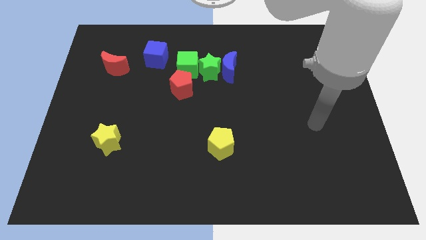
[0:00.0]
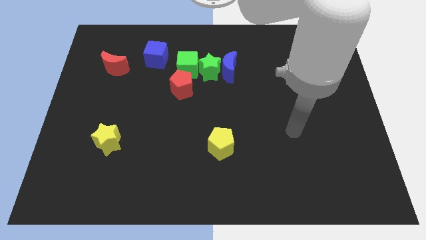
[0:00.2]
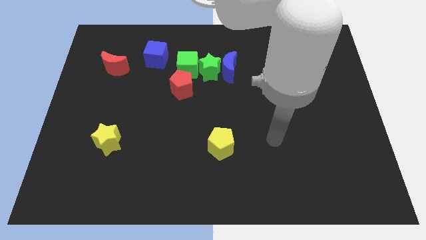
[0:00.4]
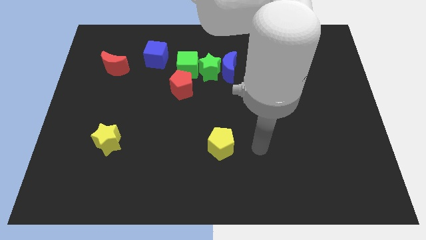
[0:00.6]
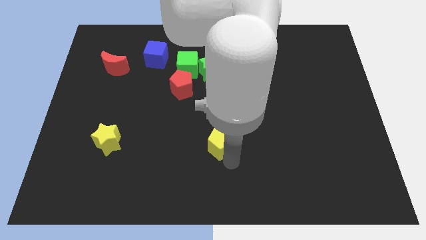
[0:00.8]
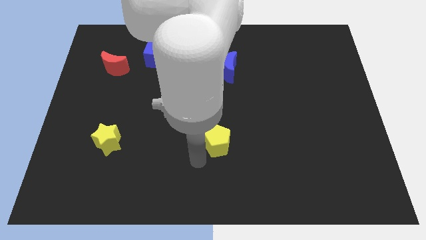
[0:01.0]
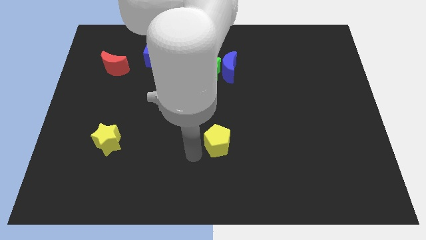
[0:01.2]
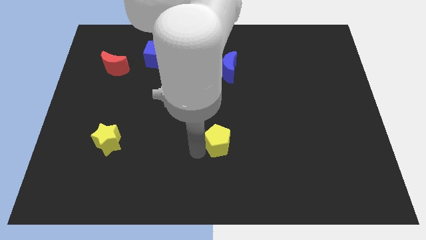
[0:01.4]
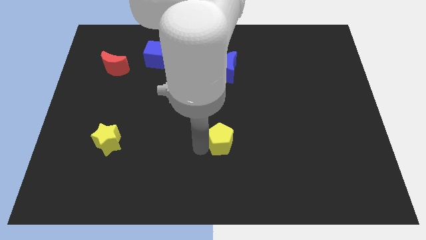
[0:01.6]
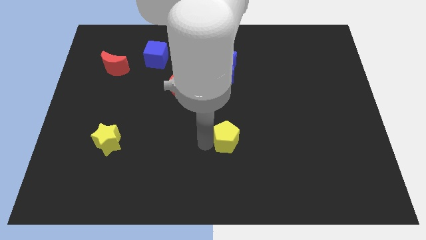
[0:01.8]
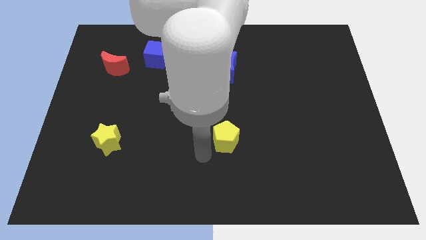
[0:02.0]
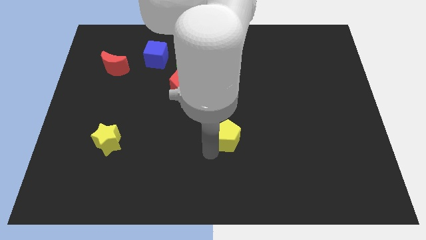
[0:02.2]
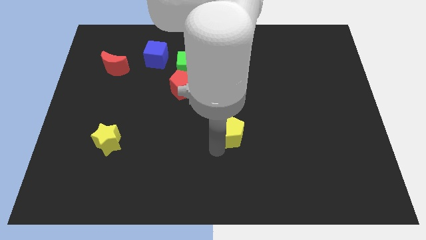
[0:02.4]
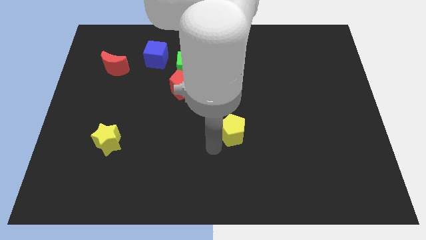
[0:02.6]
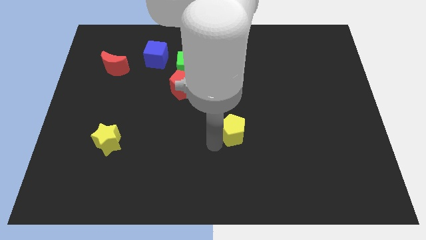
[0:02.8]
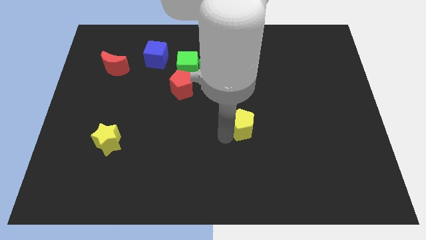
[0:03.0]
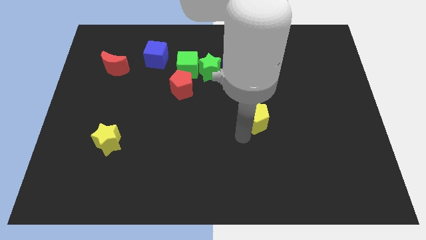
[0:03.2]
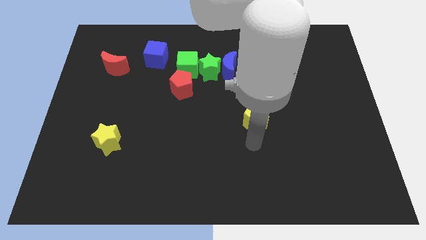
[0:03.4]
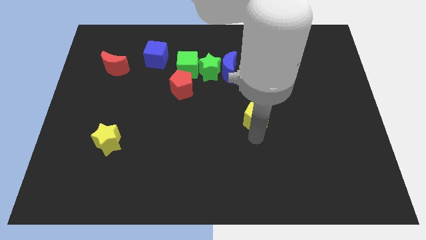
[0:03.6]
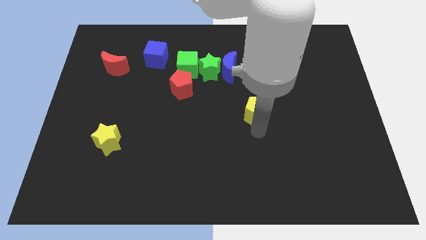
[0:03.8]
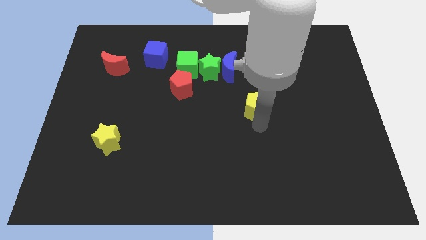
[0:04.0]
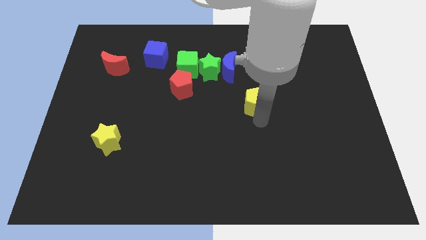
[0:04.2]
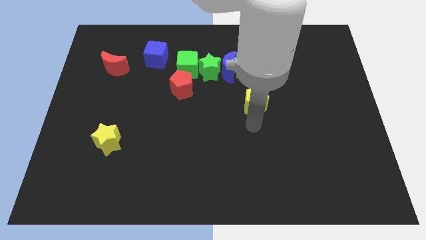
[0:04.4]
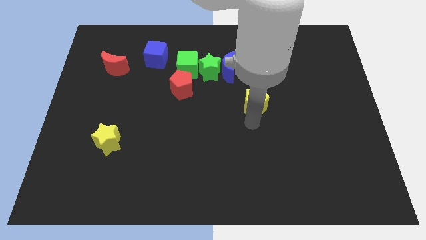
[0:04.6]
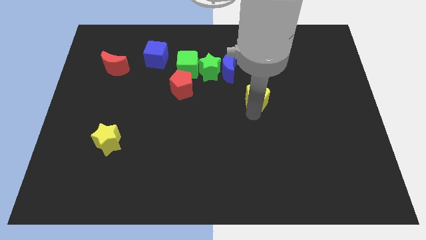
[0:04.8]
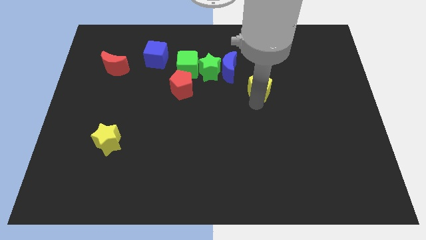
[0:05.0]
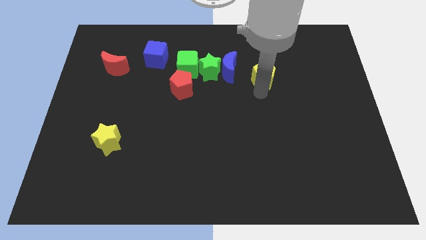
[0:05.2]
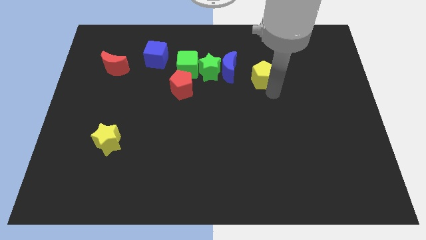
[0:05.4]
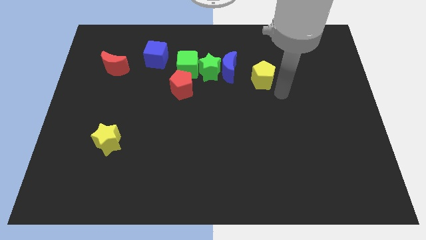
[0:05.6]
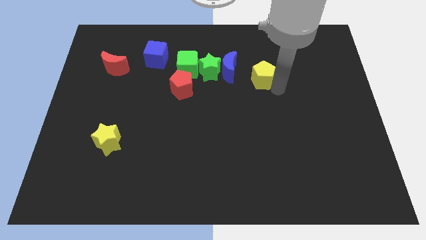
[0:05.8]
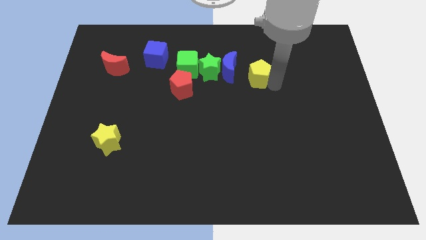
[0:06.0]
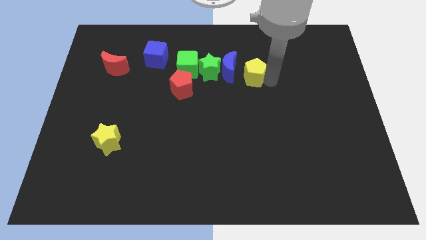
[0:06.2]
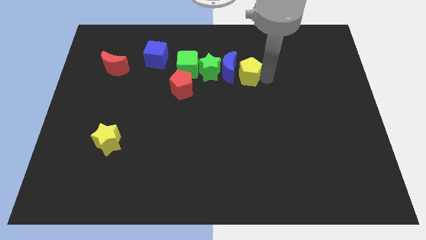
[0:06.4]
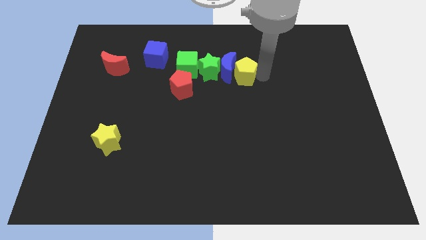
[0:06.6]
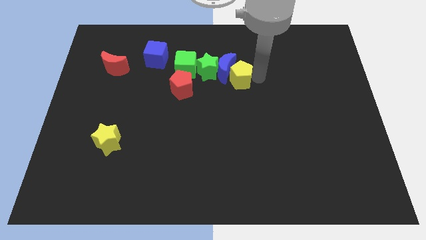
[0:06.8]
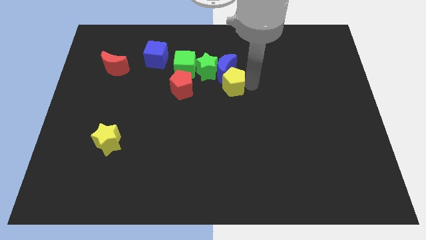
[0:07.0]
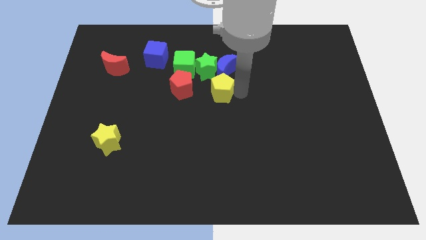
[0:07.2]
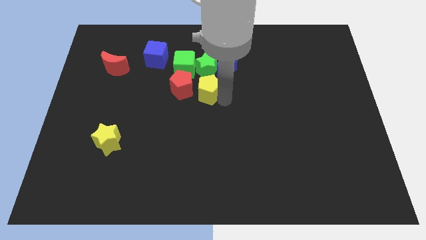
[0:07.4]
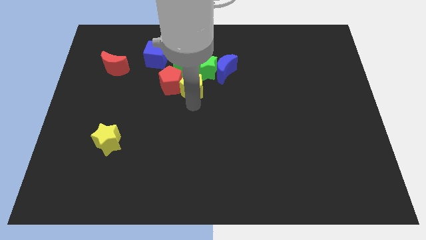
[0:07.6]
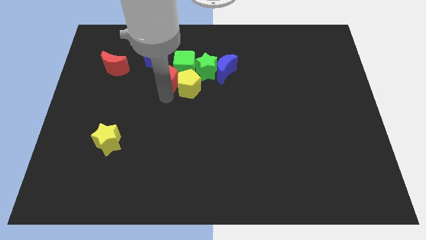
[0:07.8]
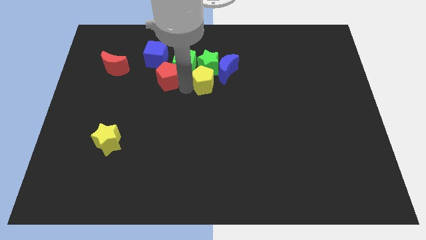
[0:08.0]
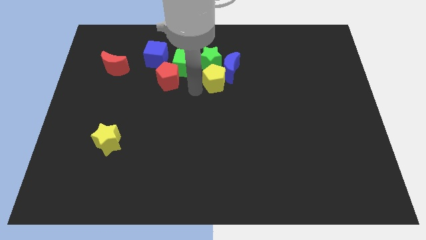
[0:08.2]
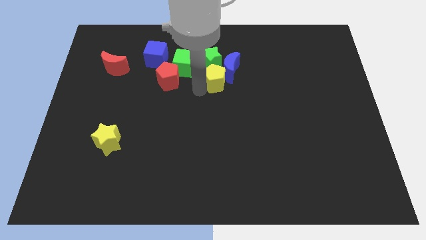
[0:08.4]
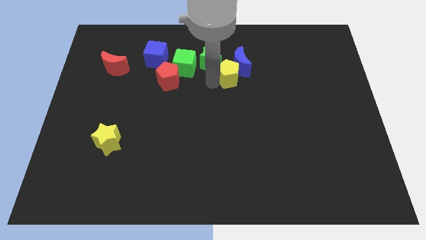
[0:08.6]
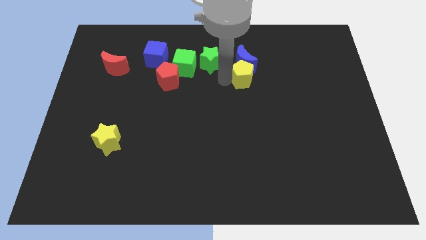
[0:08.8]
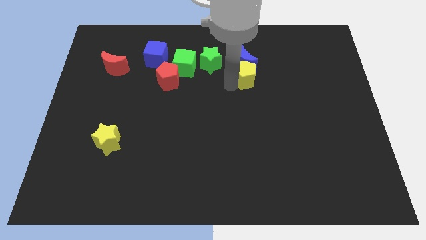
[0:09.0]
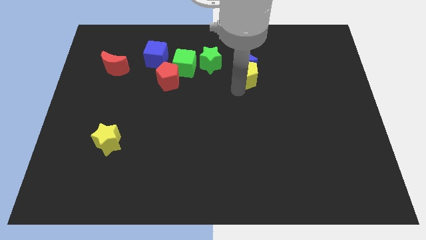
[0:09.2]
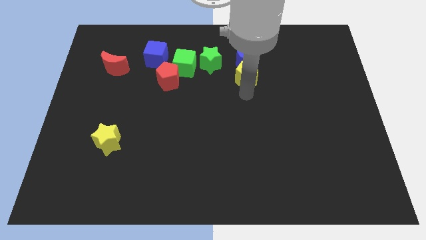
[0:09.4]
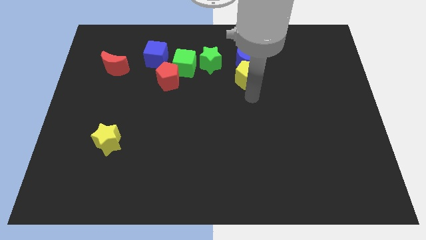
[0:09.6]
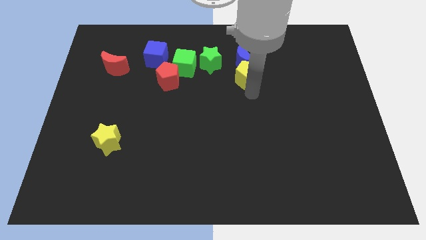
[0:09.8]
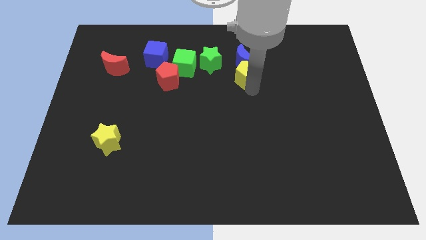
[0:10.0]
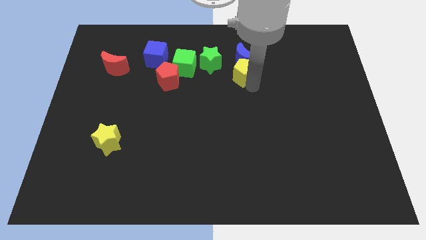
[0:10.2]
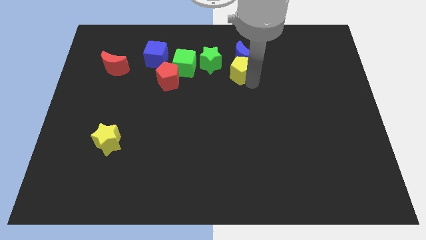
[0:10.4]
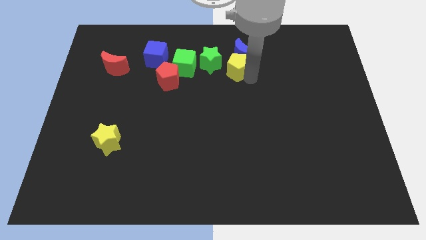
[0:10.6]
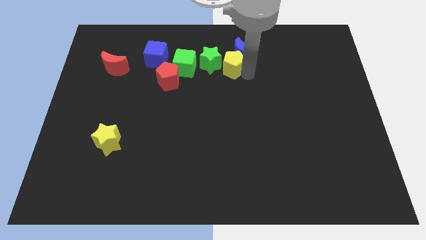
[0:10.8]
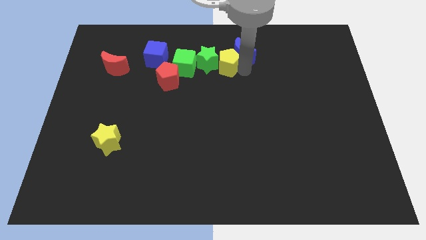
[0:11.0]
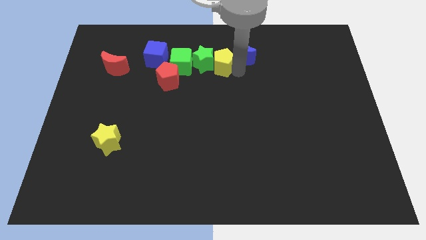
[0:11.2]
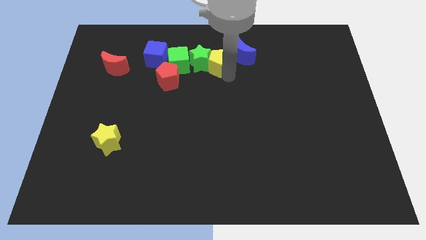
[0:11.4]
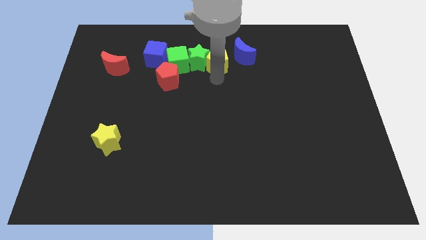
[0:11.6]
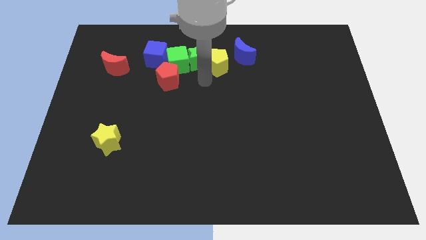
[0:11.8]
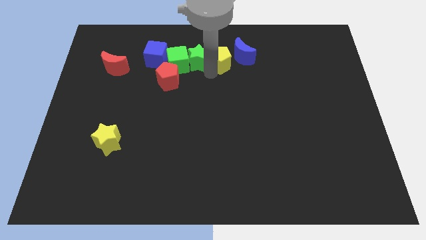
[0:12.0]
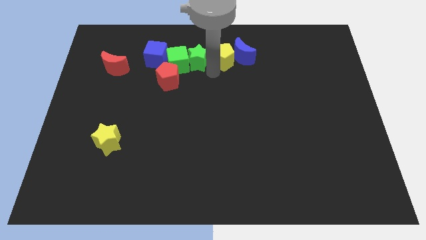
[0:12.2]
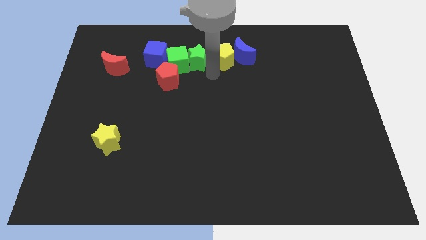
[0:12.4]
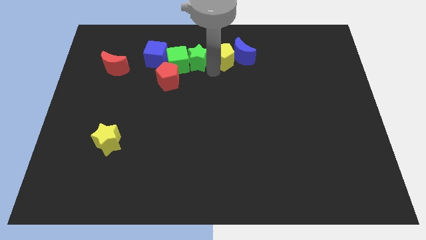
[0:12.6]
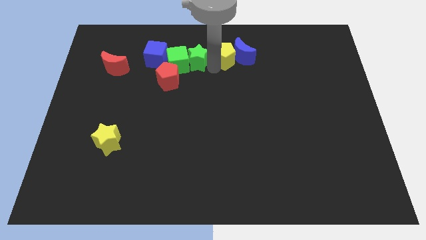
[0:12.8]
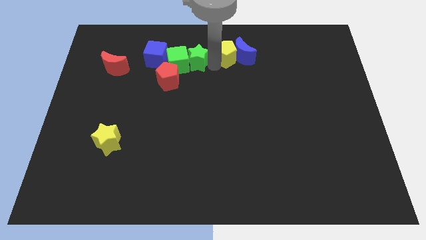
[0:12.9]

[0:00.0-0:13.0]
slide the yellow pentagon to the towards your base
